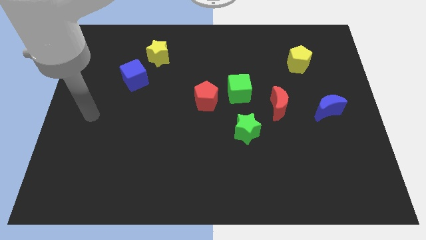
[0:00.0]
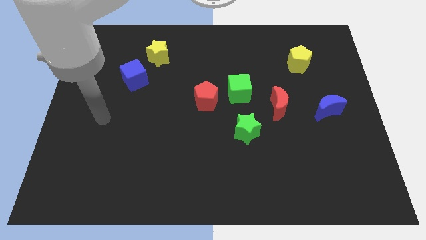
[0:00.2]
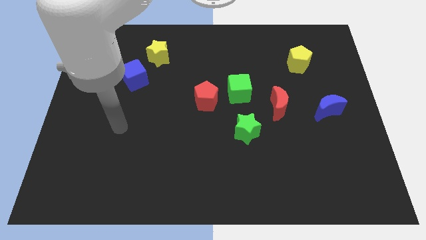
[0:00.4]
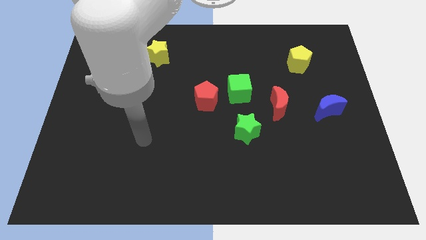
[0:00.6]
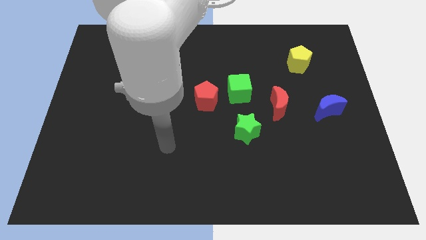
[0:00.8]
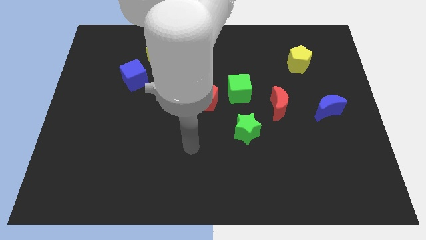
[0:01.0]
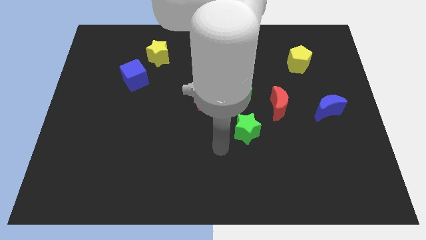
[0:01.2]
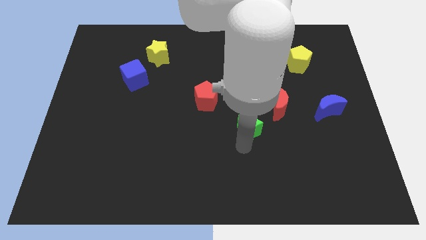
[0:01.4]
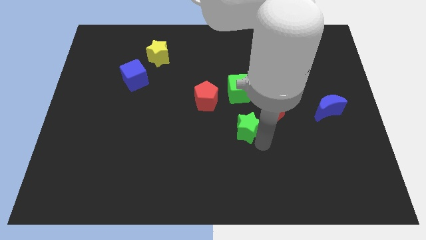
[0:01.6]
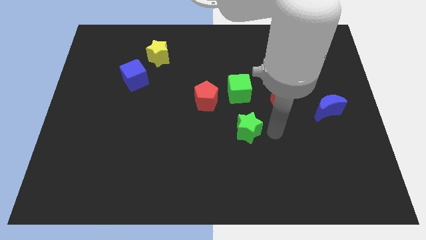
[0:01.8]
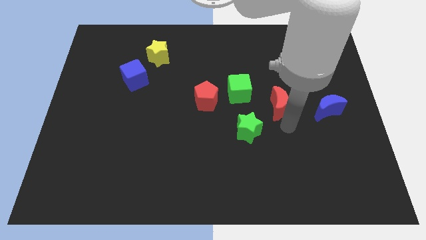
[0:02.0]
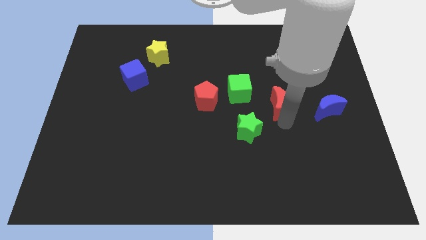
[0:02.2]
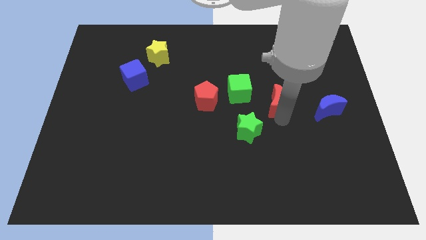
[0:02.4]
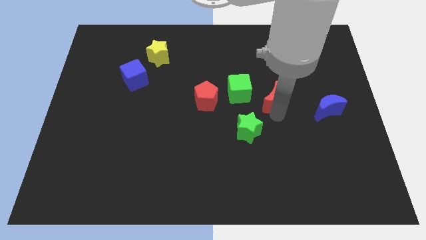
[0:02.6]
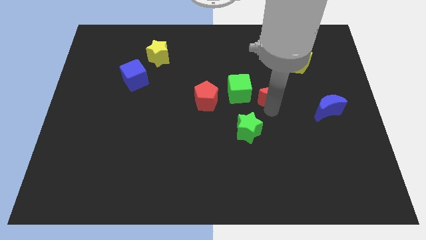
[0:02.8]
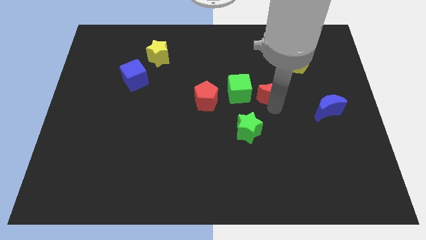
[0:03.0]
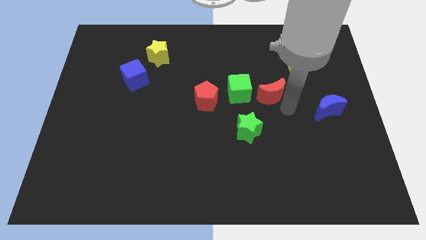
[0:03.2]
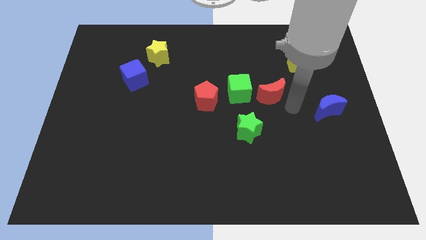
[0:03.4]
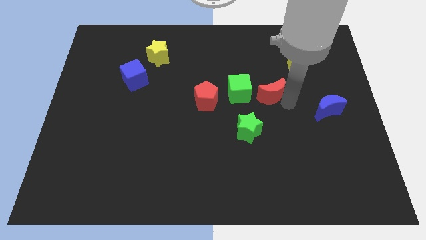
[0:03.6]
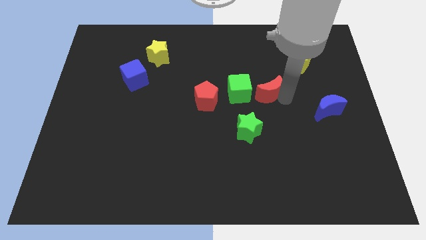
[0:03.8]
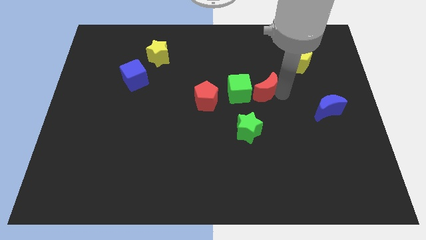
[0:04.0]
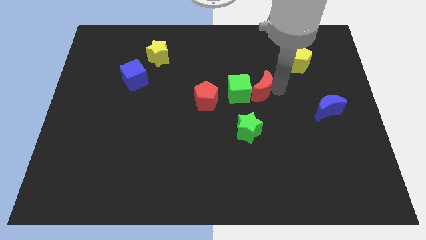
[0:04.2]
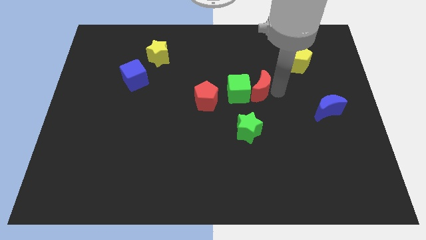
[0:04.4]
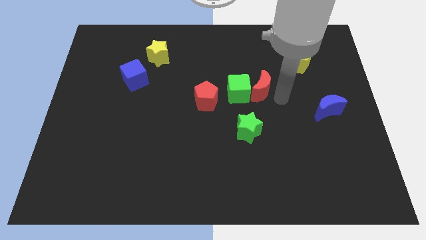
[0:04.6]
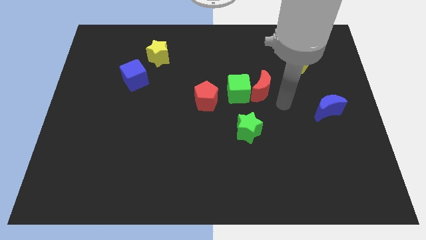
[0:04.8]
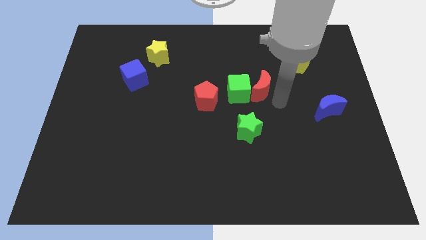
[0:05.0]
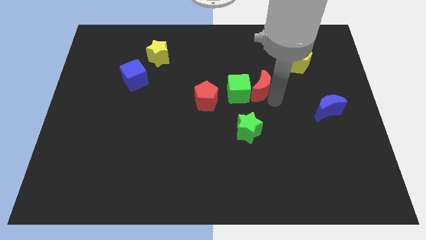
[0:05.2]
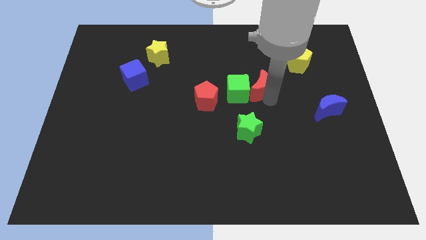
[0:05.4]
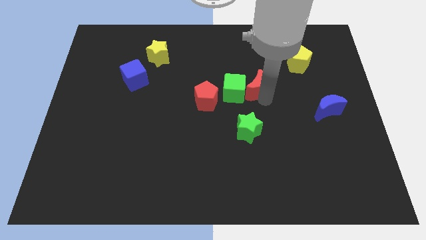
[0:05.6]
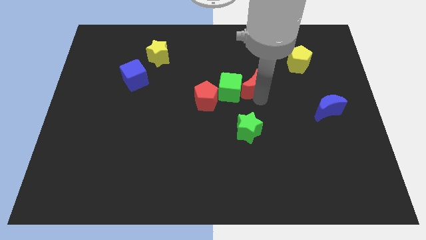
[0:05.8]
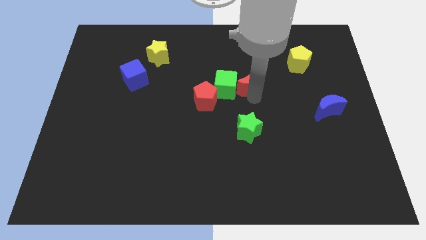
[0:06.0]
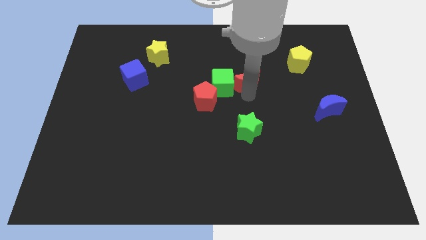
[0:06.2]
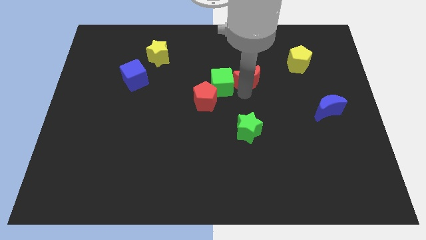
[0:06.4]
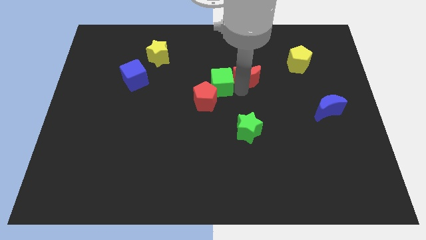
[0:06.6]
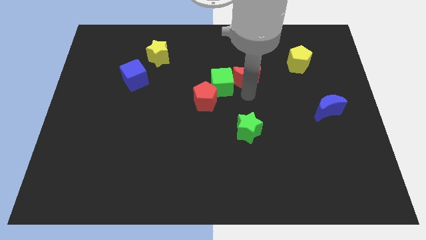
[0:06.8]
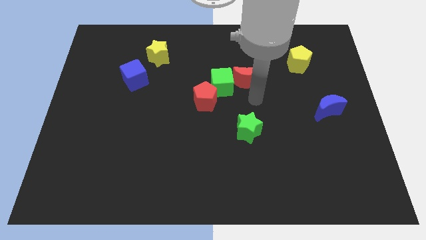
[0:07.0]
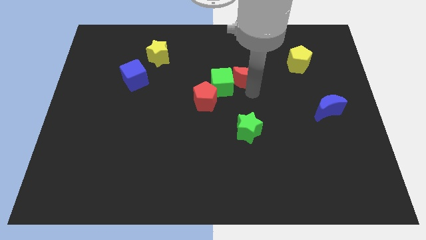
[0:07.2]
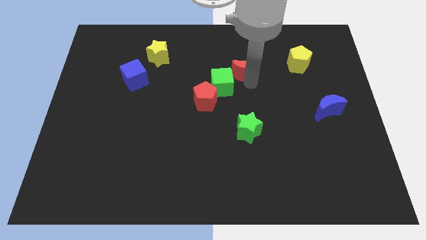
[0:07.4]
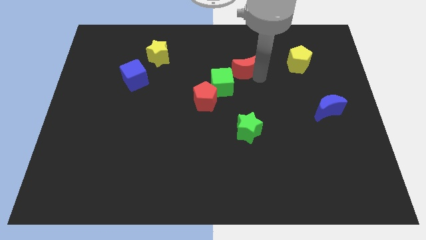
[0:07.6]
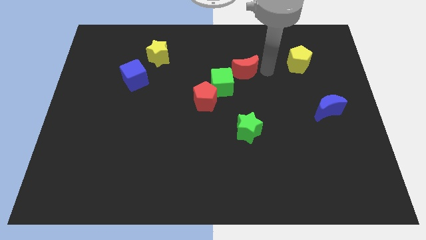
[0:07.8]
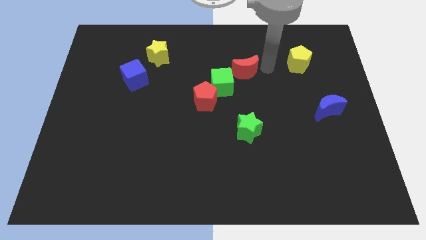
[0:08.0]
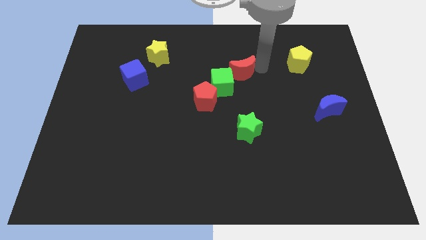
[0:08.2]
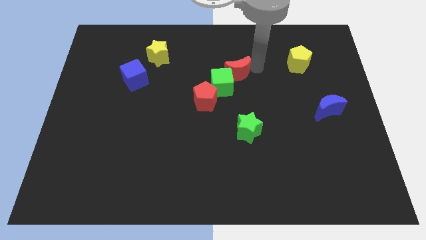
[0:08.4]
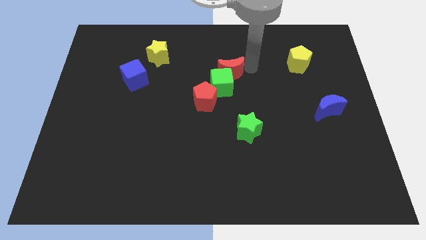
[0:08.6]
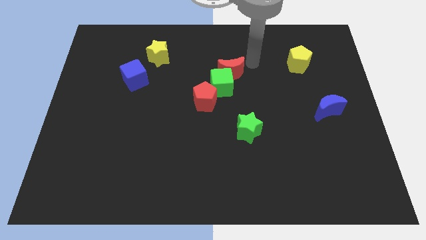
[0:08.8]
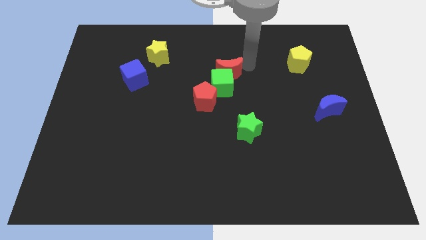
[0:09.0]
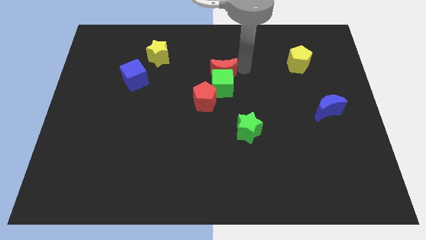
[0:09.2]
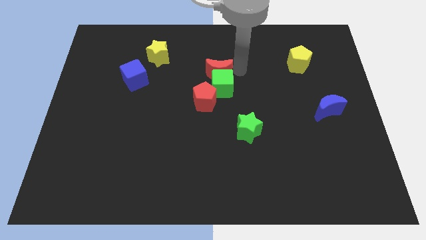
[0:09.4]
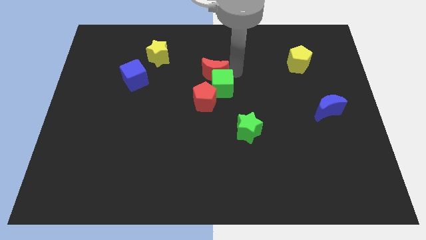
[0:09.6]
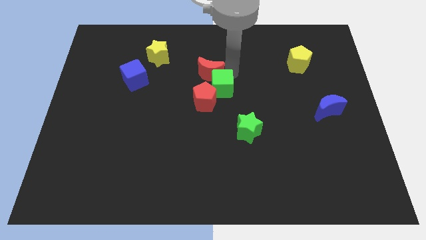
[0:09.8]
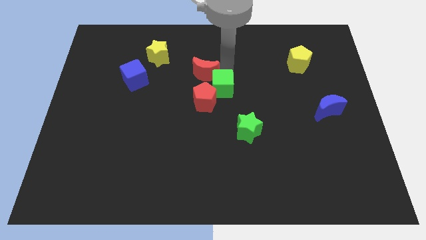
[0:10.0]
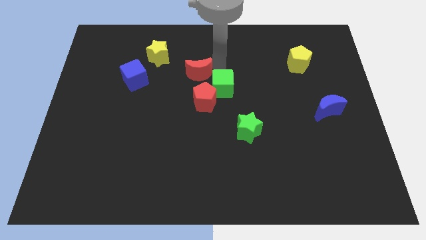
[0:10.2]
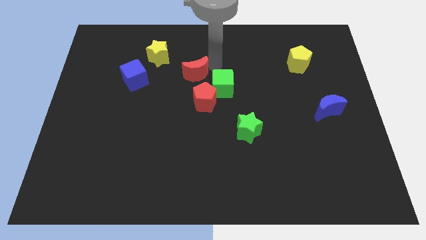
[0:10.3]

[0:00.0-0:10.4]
push the red moon diagonally up and to the left of the red pentagon

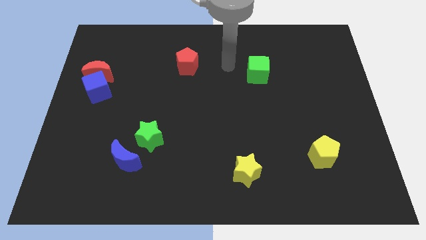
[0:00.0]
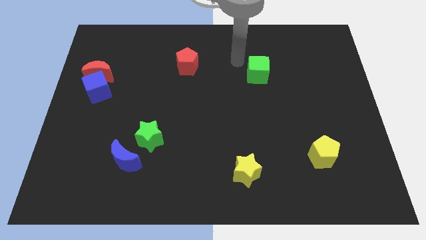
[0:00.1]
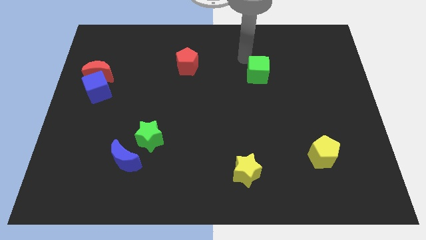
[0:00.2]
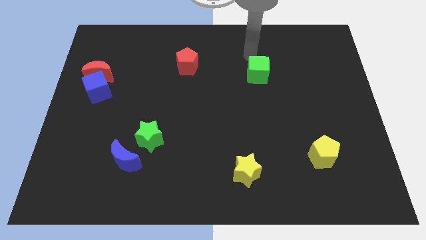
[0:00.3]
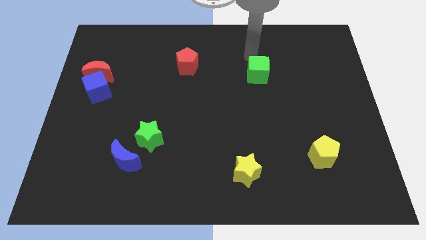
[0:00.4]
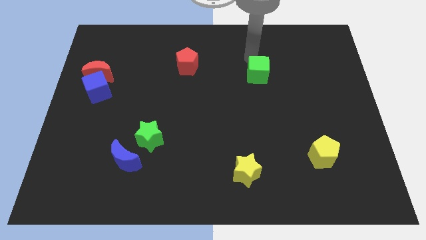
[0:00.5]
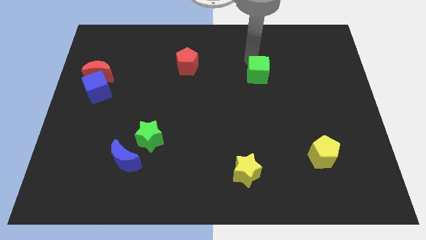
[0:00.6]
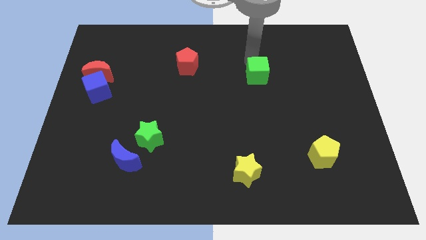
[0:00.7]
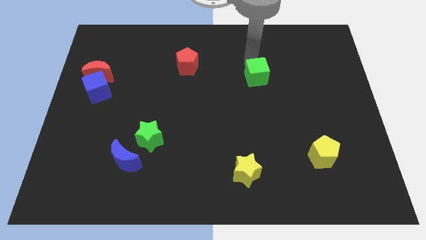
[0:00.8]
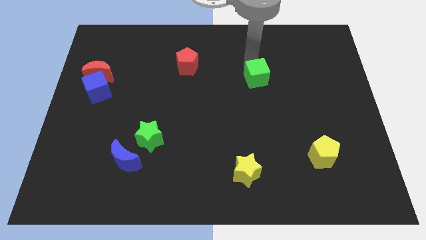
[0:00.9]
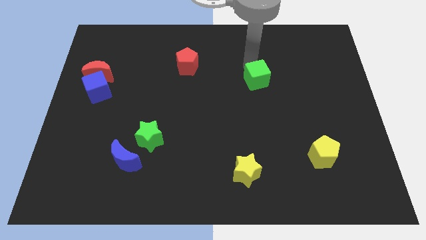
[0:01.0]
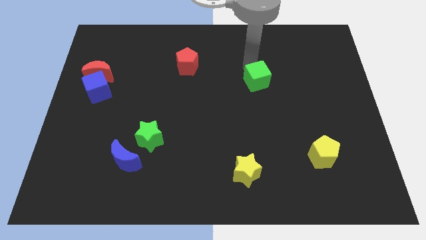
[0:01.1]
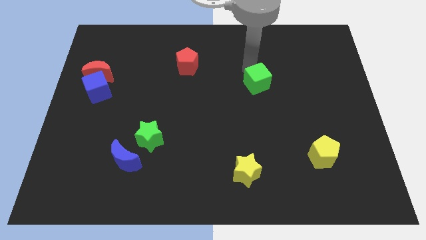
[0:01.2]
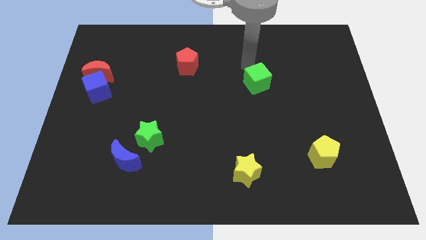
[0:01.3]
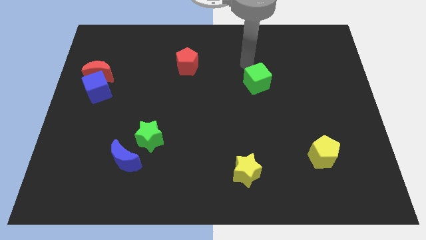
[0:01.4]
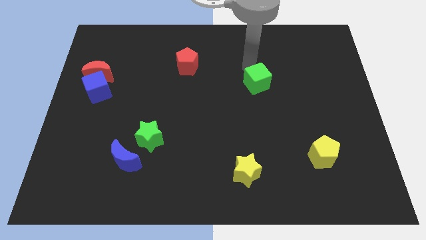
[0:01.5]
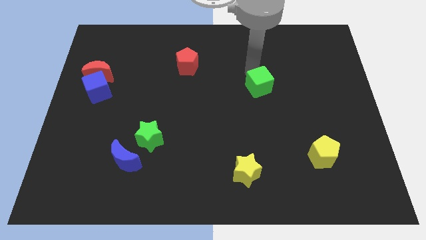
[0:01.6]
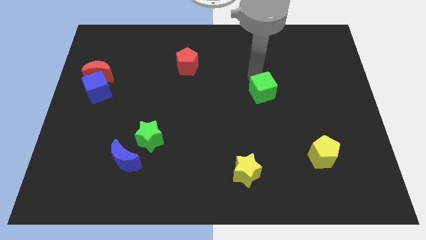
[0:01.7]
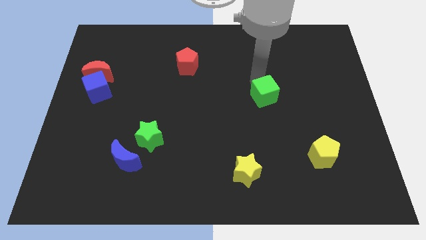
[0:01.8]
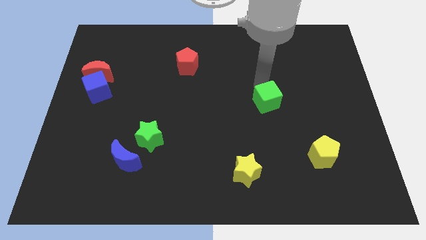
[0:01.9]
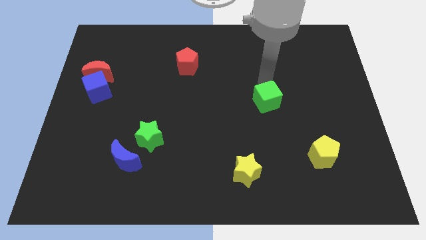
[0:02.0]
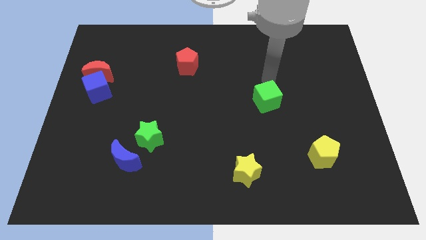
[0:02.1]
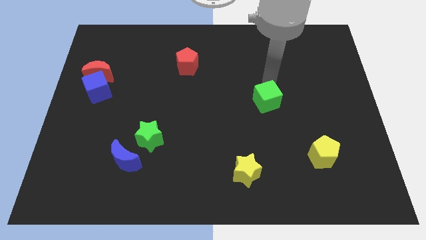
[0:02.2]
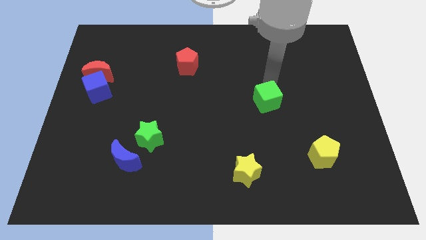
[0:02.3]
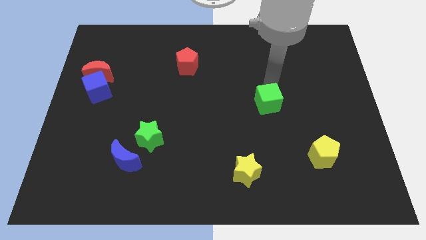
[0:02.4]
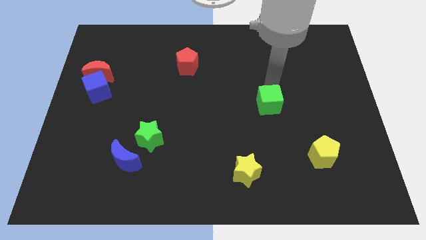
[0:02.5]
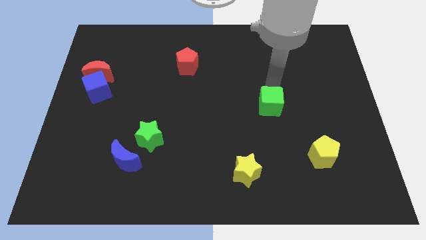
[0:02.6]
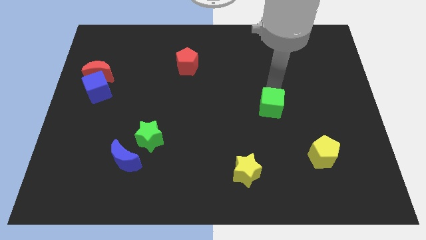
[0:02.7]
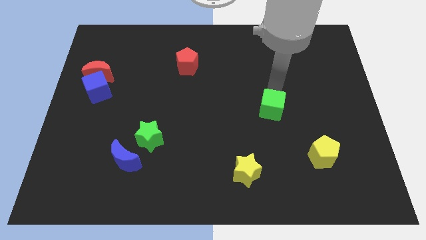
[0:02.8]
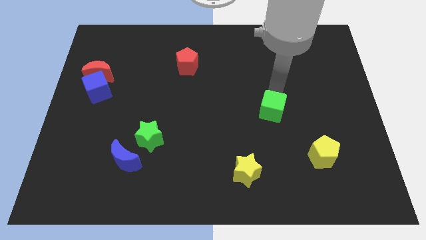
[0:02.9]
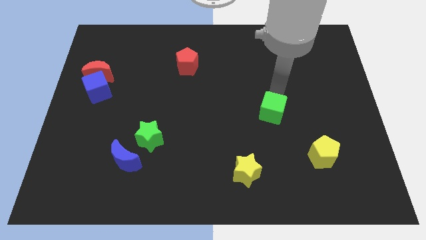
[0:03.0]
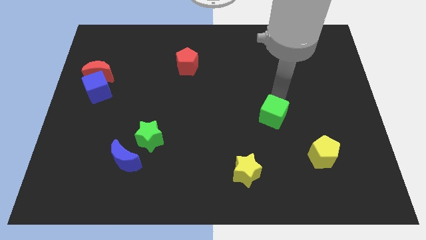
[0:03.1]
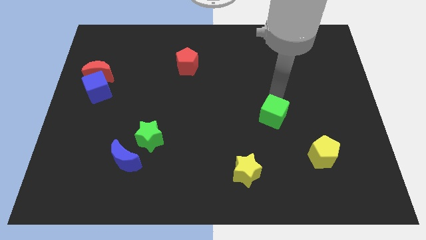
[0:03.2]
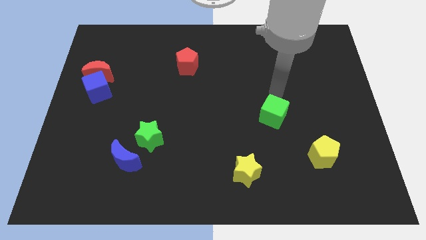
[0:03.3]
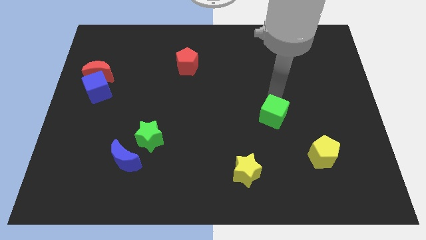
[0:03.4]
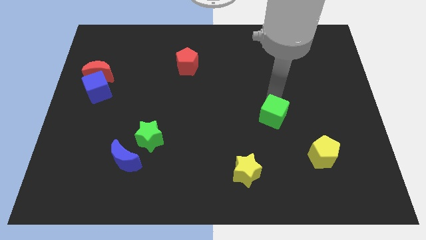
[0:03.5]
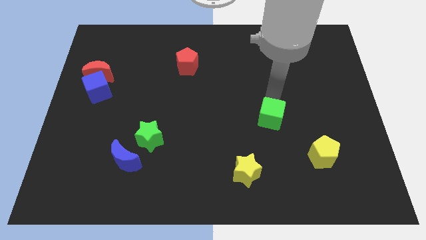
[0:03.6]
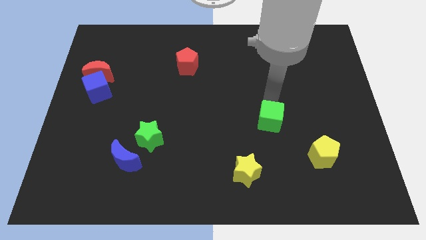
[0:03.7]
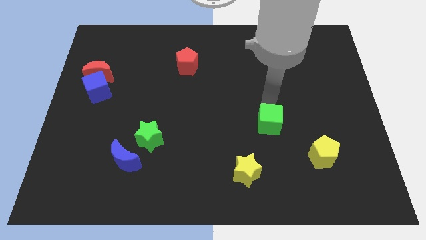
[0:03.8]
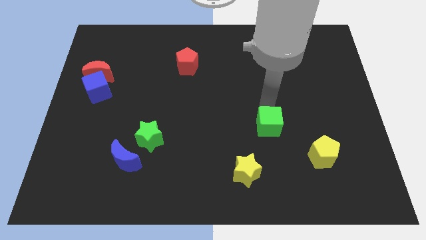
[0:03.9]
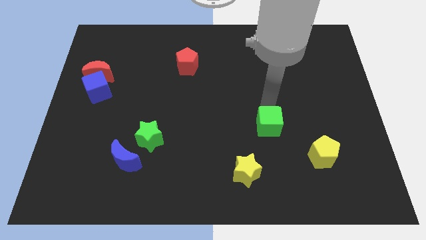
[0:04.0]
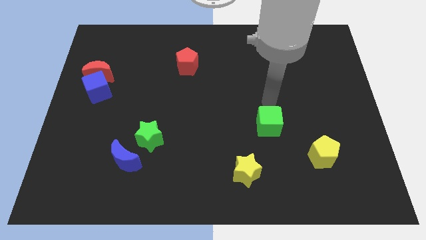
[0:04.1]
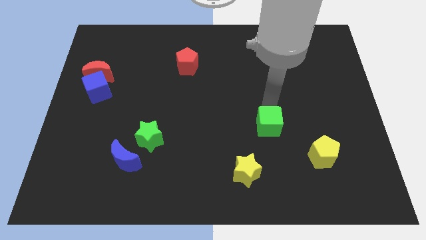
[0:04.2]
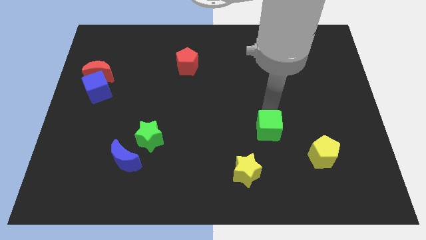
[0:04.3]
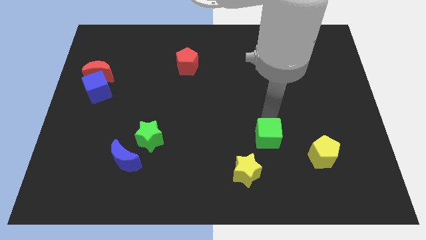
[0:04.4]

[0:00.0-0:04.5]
put the green cube diagonally up and to the right of the yellow star
